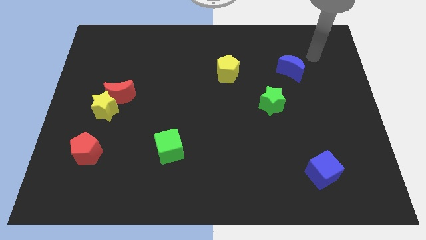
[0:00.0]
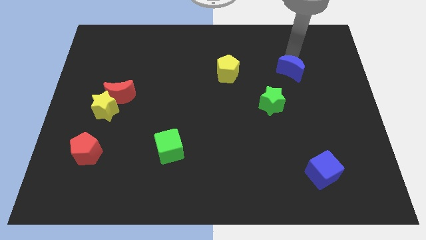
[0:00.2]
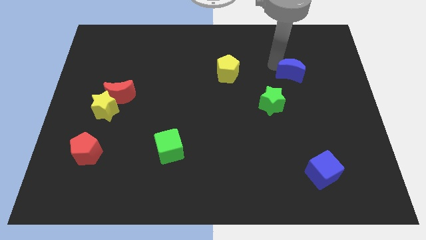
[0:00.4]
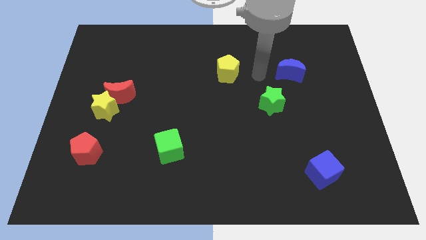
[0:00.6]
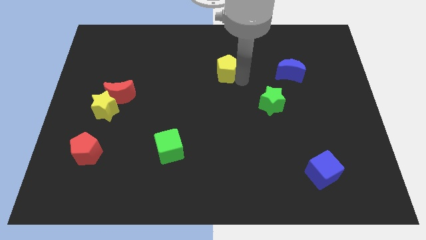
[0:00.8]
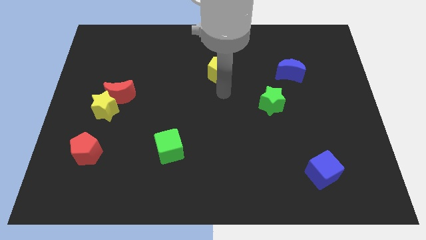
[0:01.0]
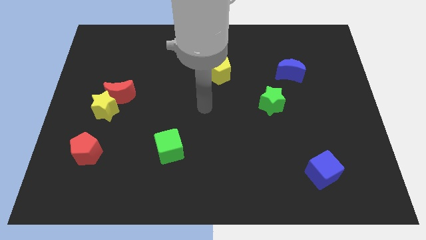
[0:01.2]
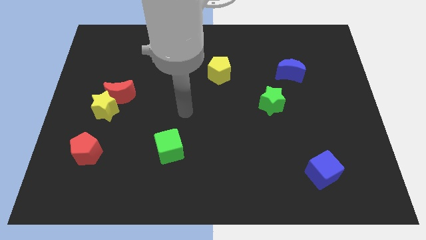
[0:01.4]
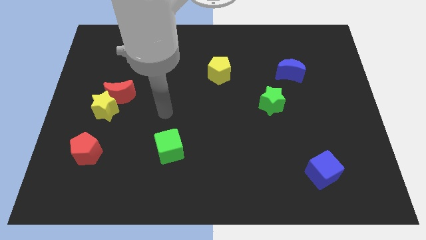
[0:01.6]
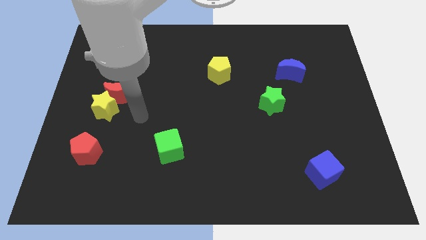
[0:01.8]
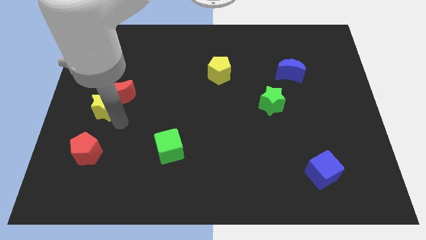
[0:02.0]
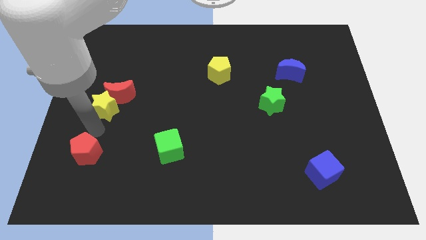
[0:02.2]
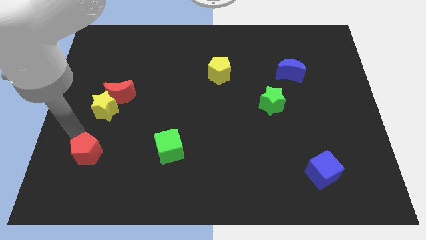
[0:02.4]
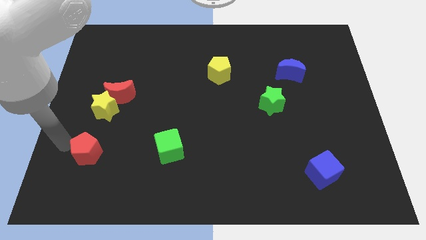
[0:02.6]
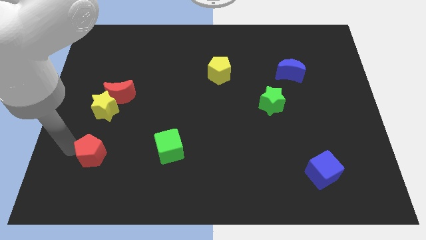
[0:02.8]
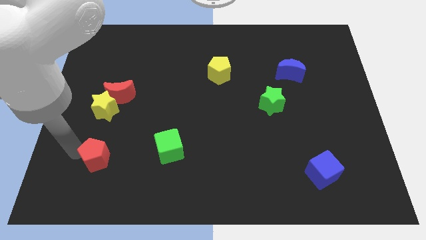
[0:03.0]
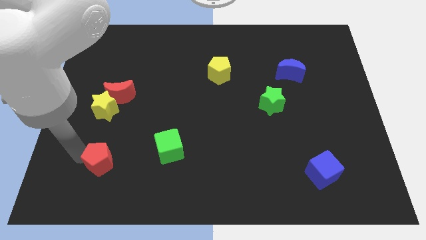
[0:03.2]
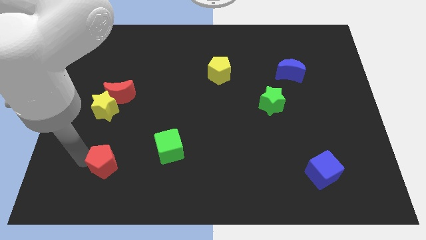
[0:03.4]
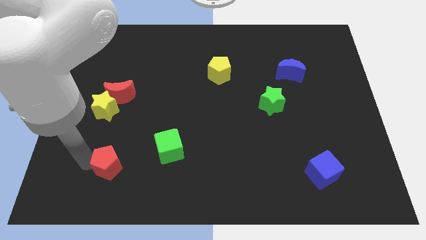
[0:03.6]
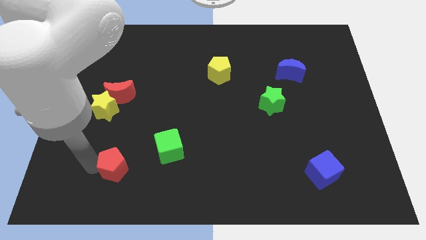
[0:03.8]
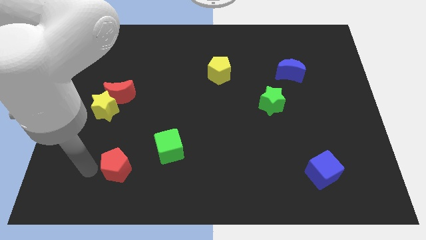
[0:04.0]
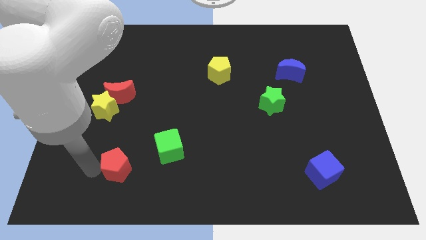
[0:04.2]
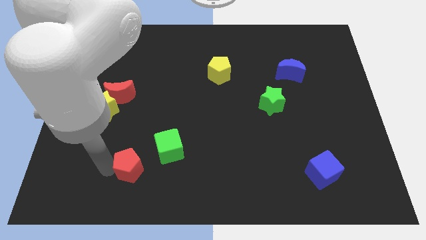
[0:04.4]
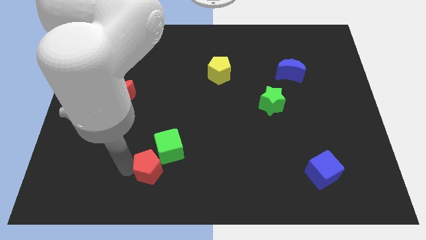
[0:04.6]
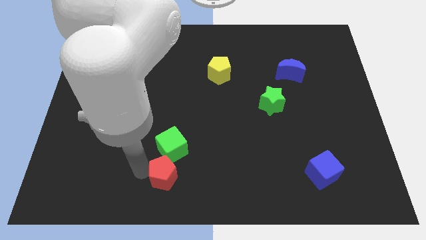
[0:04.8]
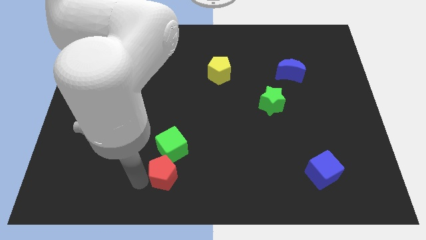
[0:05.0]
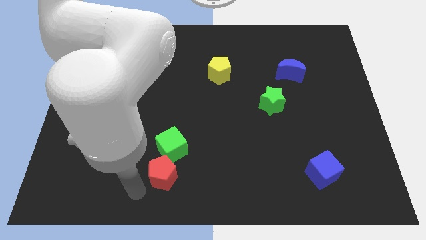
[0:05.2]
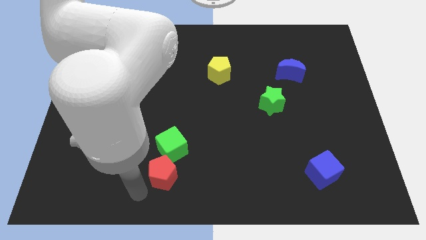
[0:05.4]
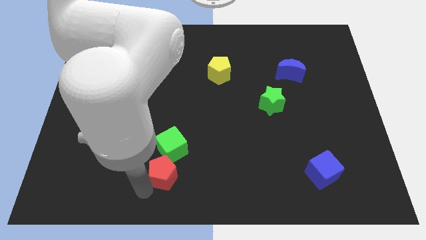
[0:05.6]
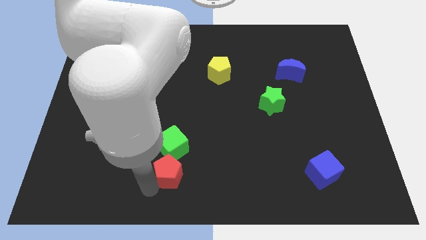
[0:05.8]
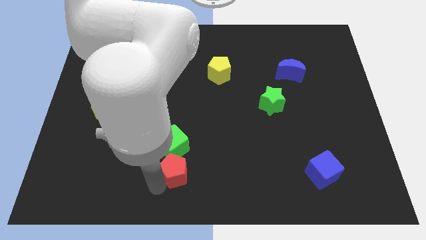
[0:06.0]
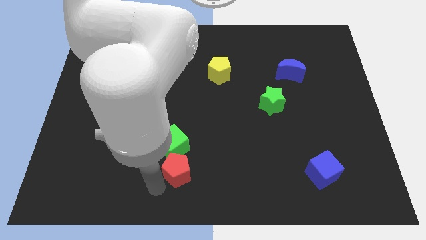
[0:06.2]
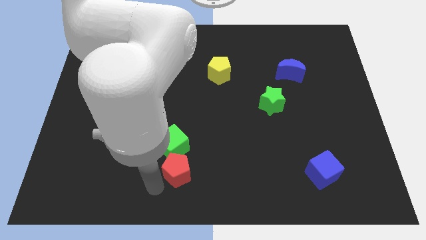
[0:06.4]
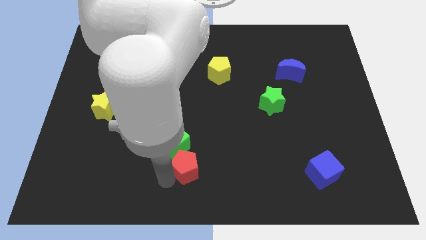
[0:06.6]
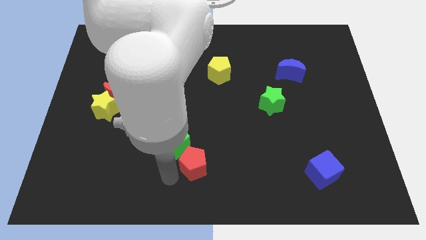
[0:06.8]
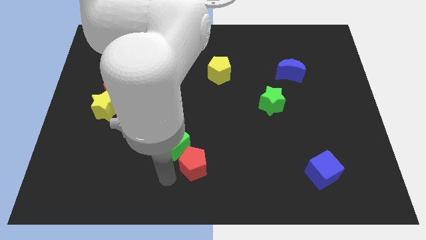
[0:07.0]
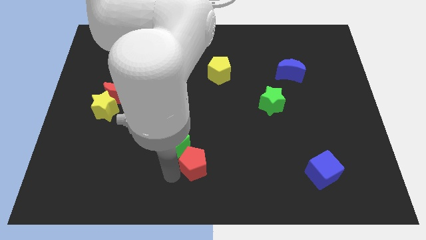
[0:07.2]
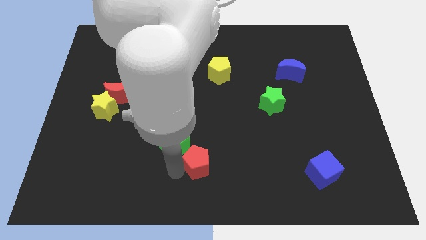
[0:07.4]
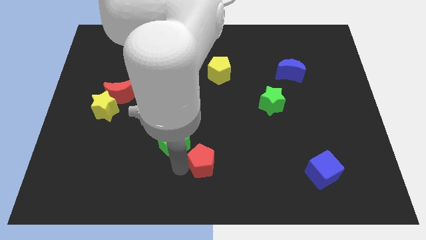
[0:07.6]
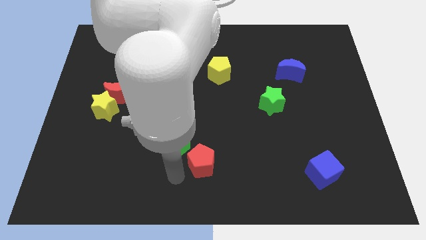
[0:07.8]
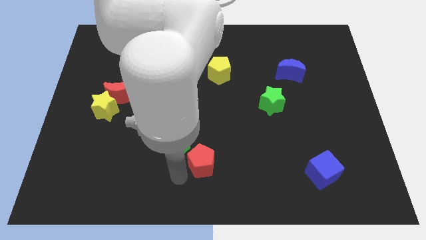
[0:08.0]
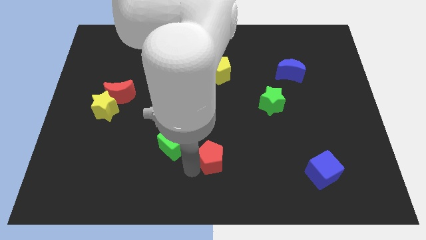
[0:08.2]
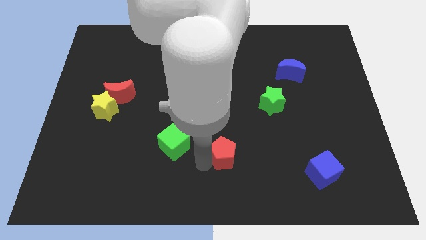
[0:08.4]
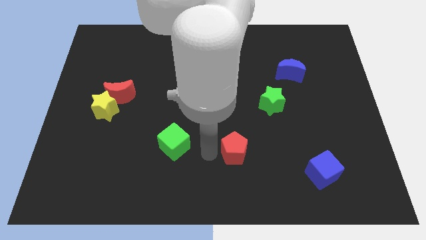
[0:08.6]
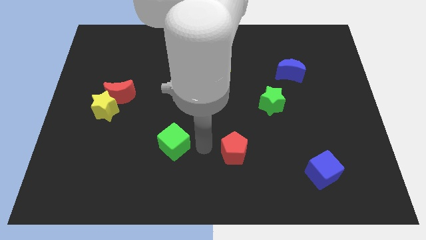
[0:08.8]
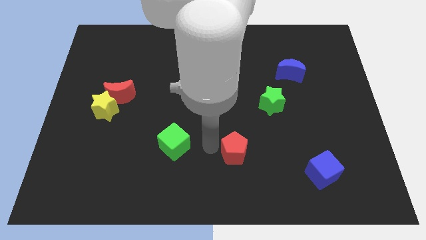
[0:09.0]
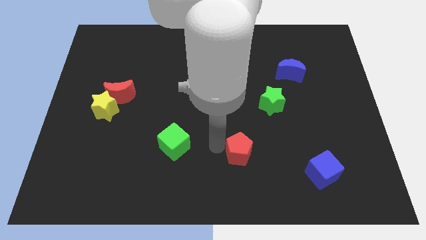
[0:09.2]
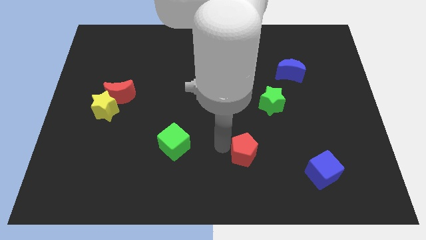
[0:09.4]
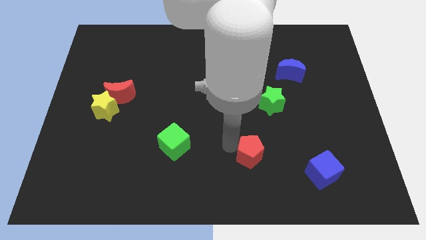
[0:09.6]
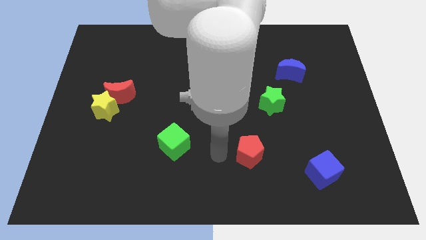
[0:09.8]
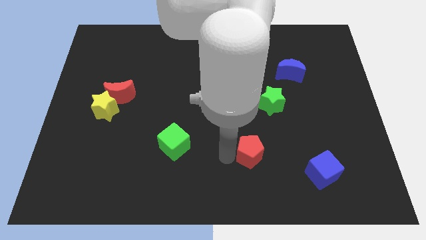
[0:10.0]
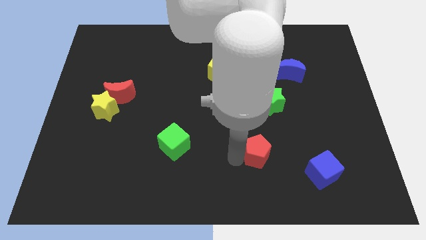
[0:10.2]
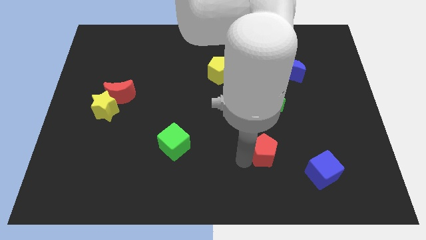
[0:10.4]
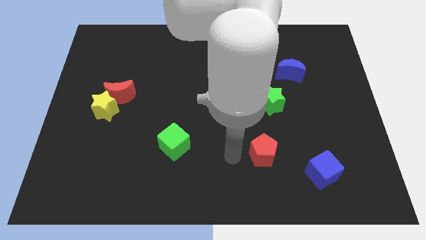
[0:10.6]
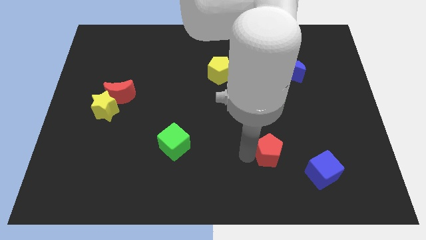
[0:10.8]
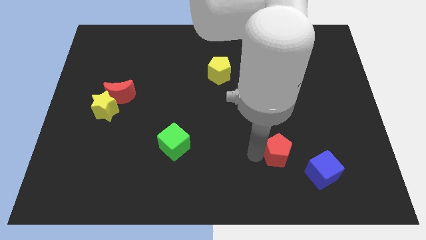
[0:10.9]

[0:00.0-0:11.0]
slide the red pentagon to the top left side of the blue cube

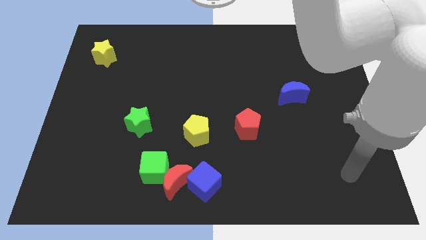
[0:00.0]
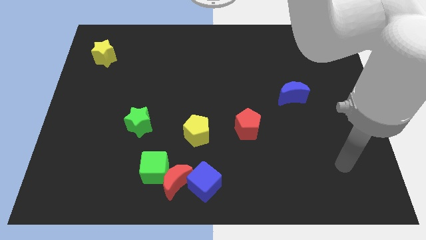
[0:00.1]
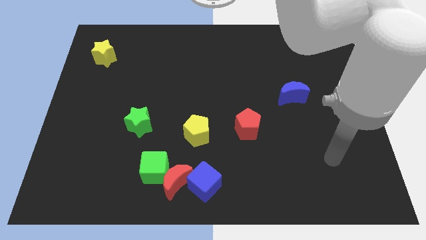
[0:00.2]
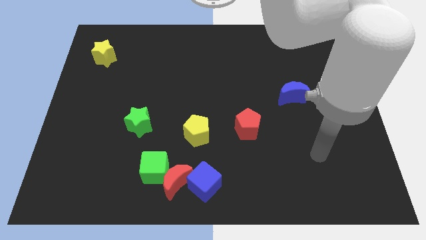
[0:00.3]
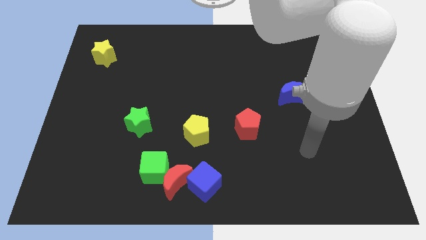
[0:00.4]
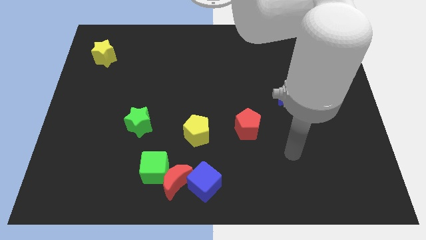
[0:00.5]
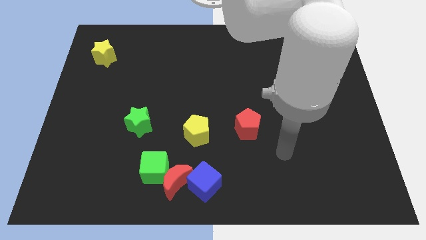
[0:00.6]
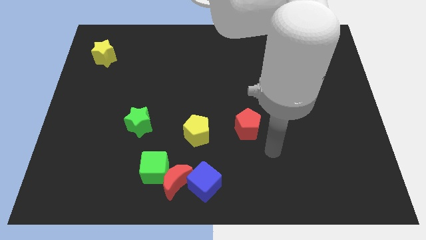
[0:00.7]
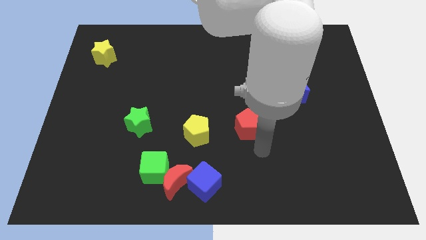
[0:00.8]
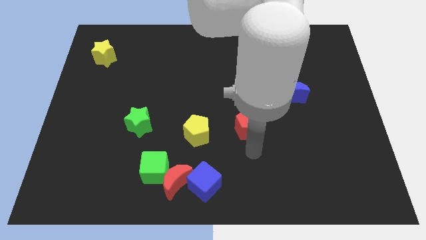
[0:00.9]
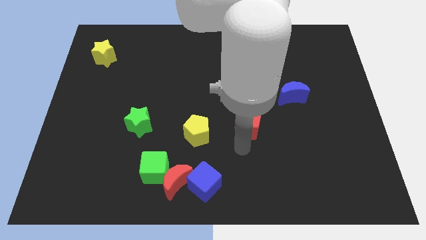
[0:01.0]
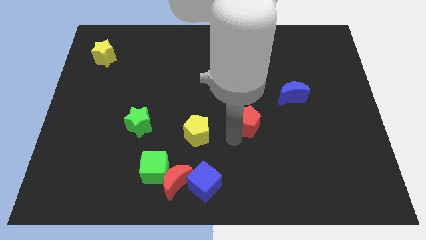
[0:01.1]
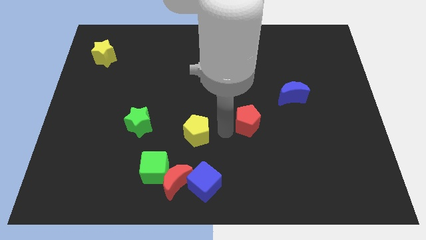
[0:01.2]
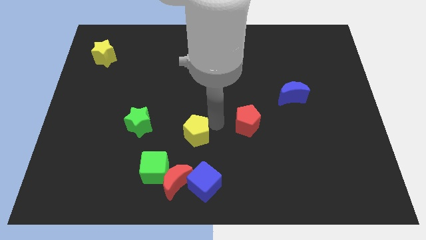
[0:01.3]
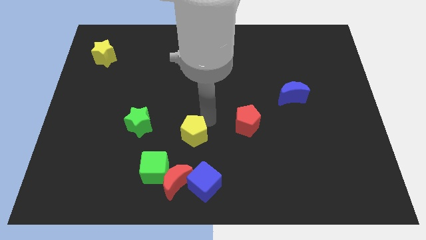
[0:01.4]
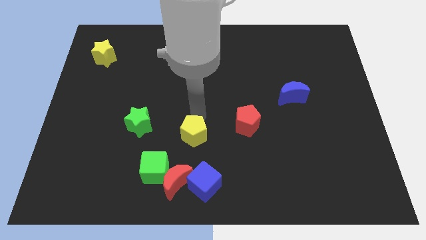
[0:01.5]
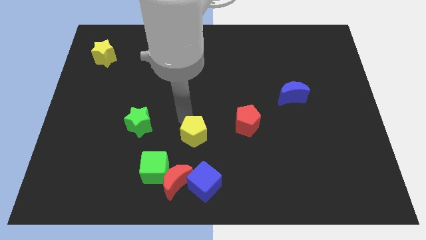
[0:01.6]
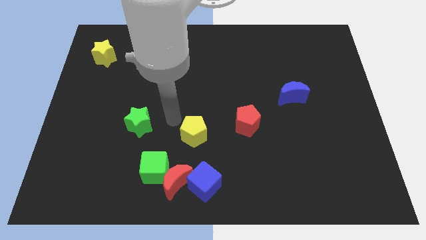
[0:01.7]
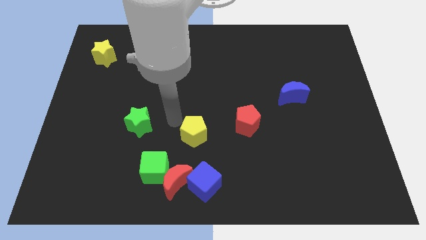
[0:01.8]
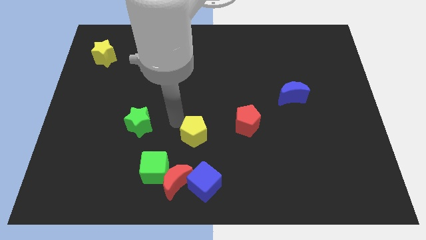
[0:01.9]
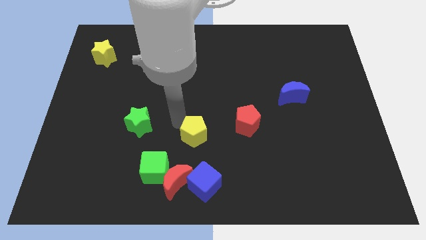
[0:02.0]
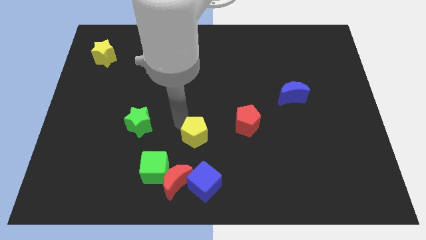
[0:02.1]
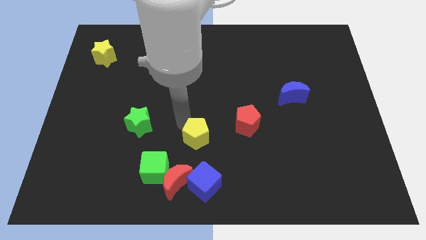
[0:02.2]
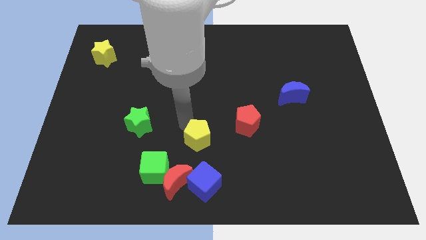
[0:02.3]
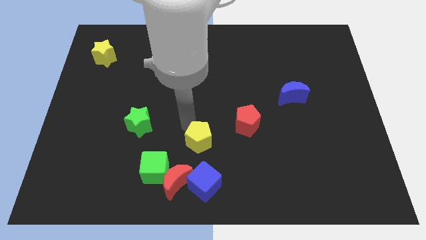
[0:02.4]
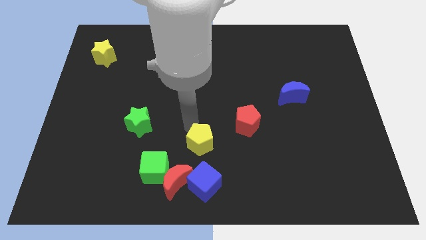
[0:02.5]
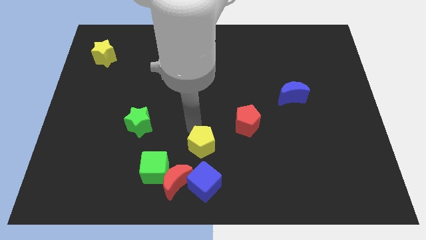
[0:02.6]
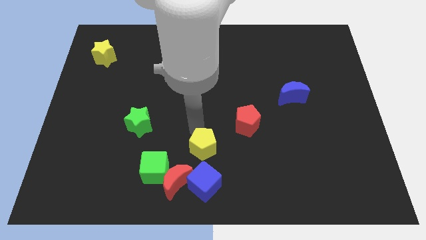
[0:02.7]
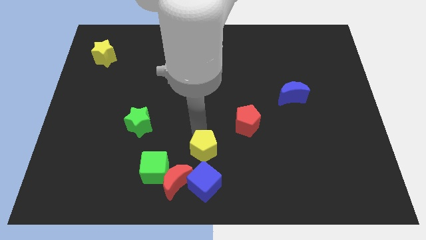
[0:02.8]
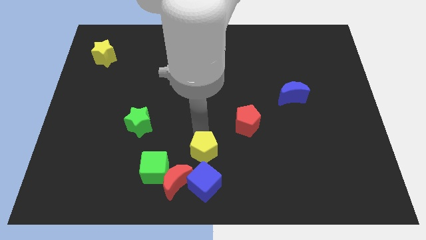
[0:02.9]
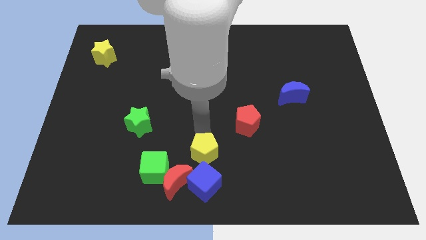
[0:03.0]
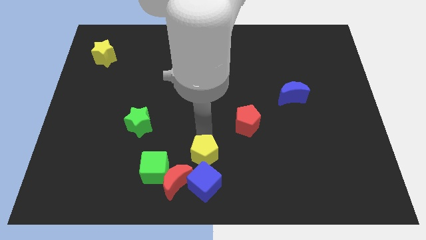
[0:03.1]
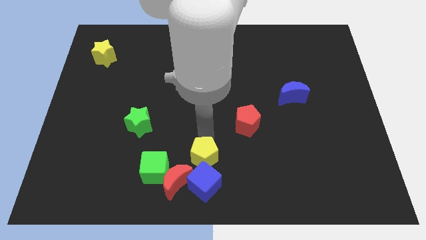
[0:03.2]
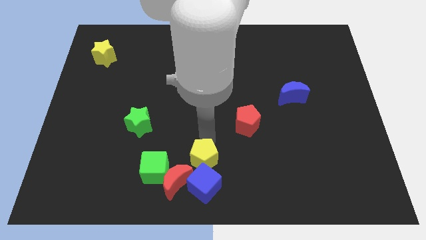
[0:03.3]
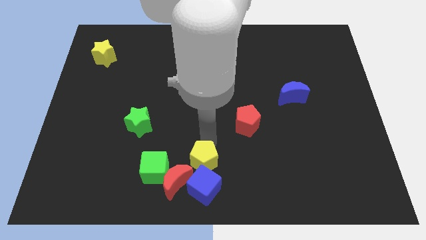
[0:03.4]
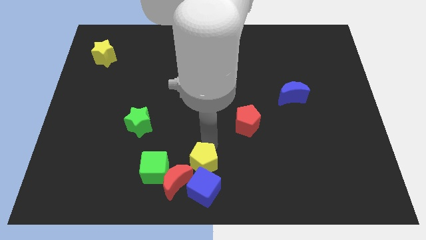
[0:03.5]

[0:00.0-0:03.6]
push the yellow pentagon to the right of the red moon
